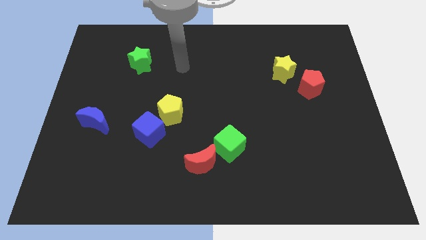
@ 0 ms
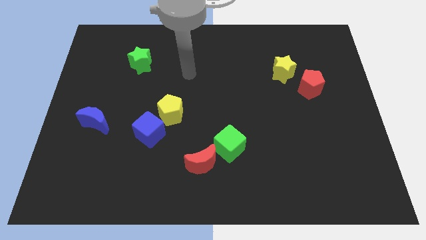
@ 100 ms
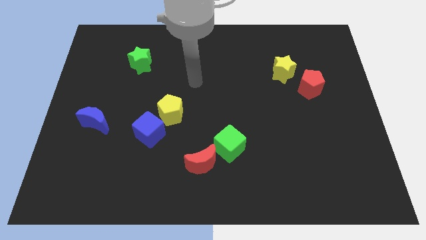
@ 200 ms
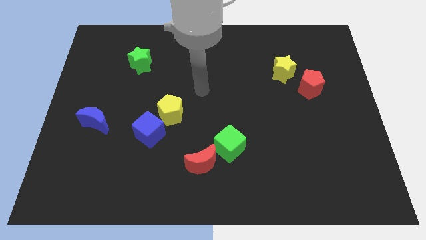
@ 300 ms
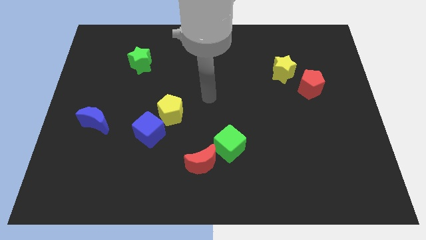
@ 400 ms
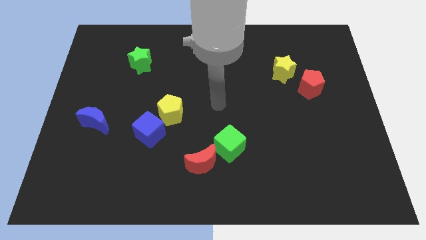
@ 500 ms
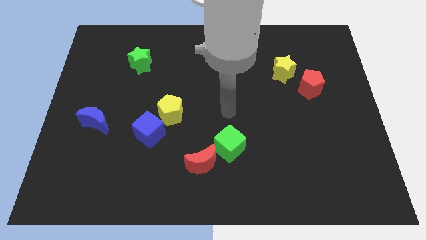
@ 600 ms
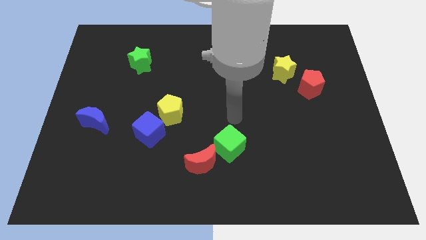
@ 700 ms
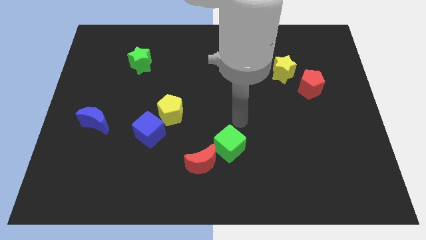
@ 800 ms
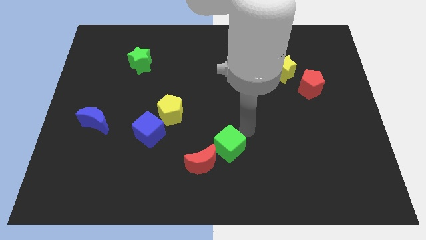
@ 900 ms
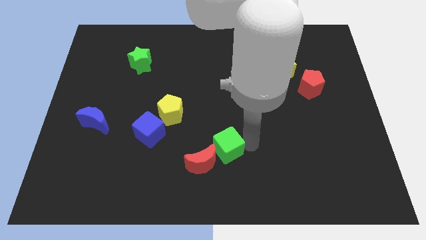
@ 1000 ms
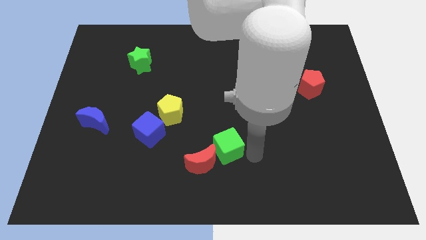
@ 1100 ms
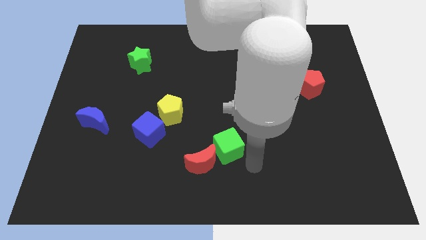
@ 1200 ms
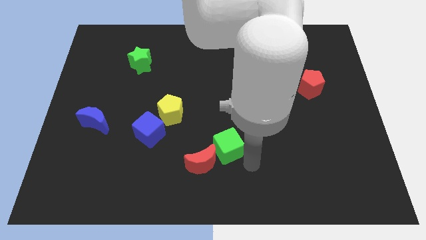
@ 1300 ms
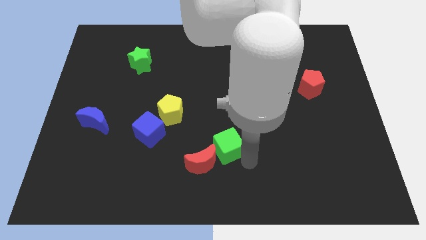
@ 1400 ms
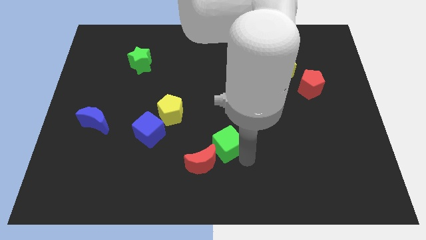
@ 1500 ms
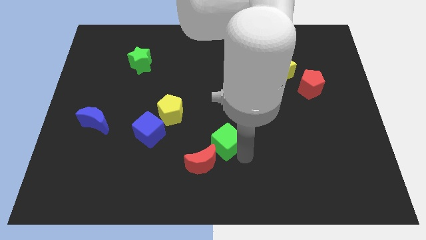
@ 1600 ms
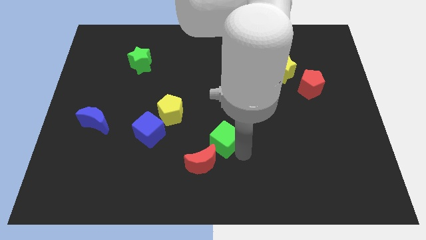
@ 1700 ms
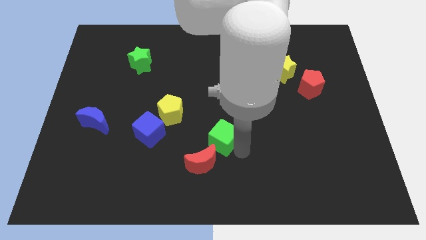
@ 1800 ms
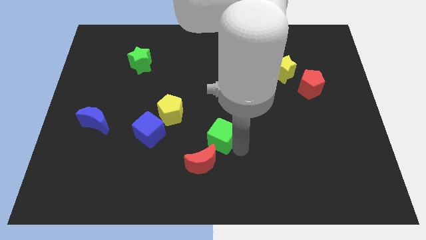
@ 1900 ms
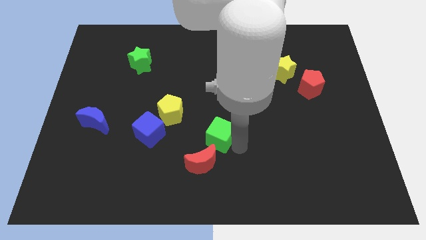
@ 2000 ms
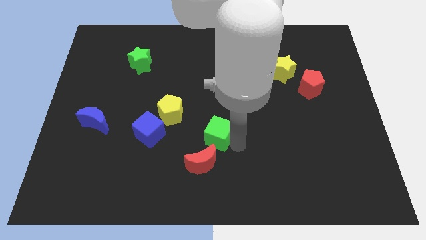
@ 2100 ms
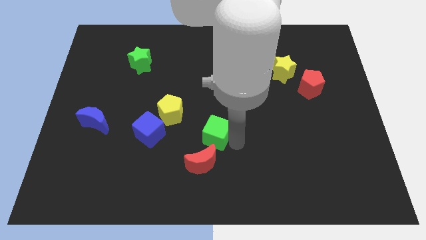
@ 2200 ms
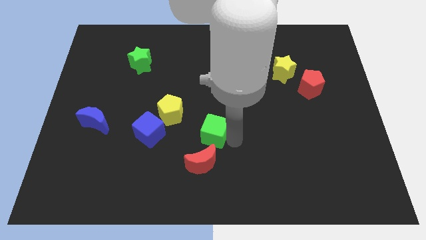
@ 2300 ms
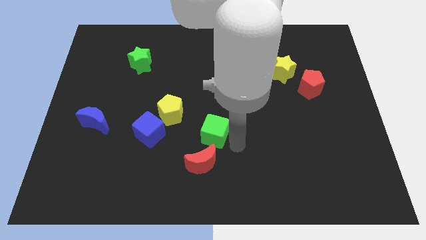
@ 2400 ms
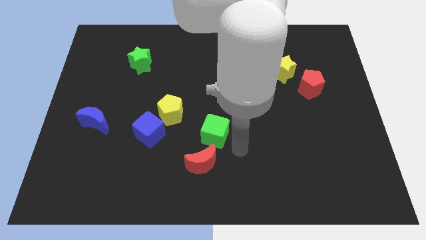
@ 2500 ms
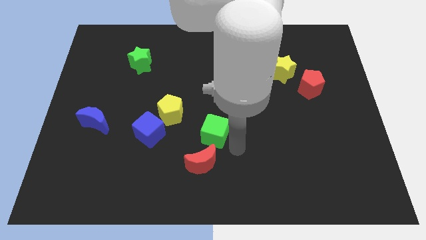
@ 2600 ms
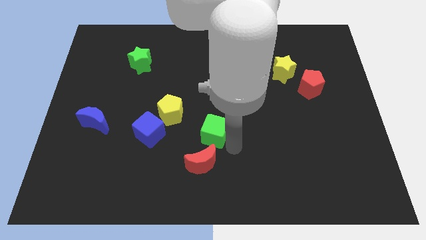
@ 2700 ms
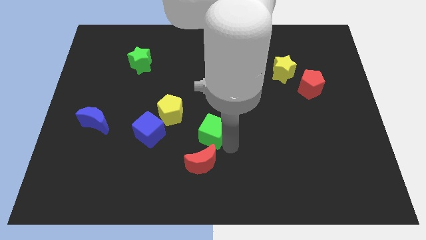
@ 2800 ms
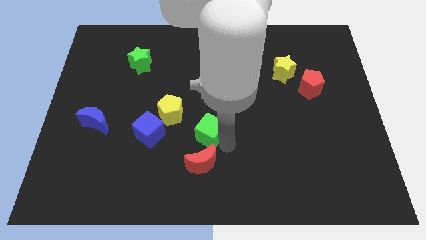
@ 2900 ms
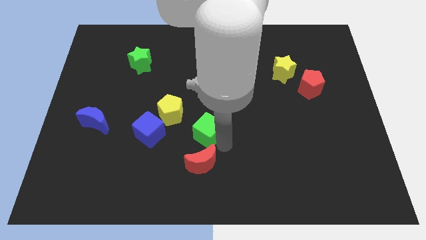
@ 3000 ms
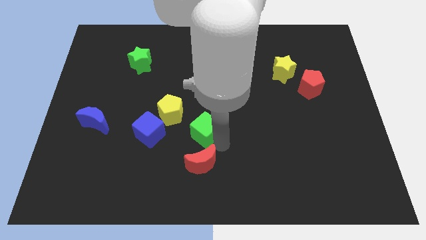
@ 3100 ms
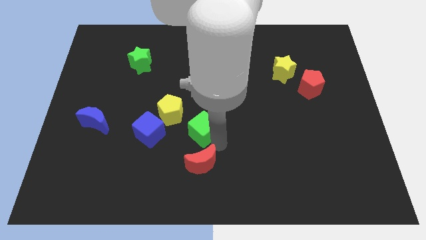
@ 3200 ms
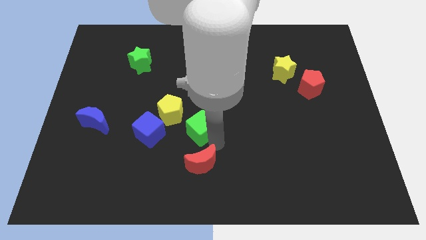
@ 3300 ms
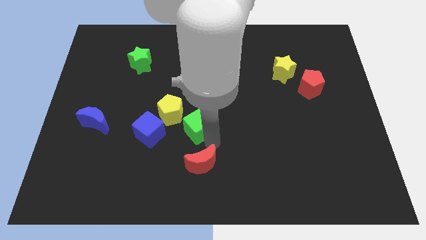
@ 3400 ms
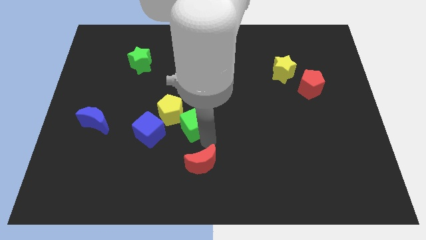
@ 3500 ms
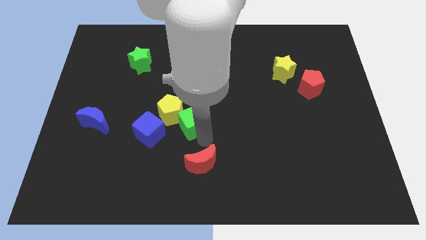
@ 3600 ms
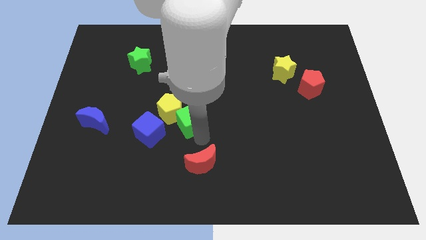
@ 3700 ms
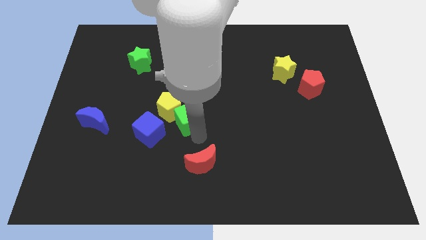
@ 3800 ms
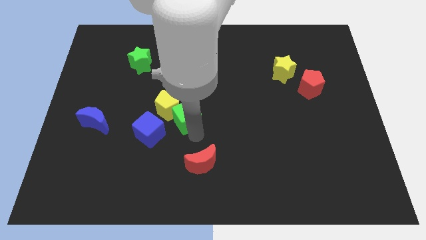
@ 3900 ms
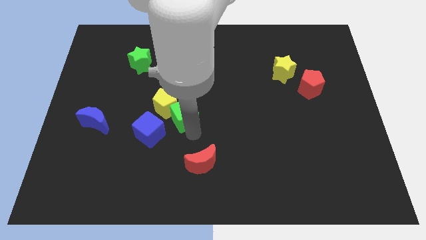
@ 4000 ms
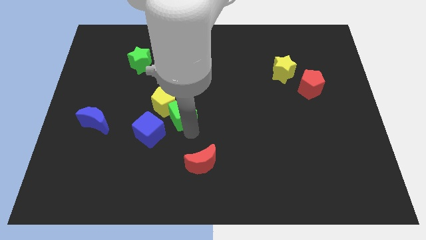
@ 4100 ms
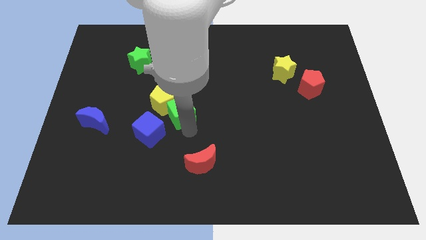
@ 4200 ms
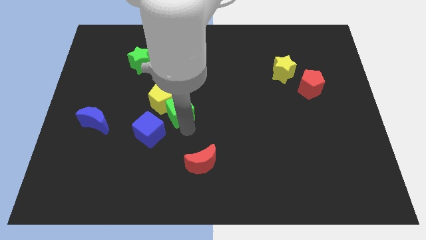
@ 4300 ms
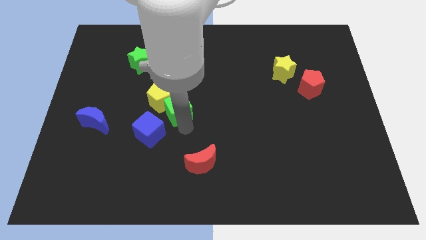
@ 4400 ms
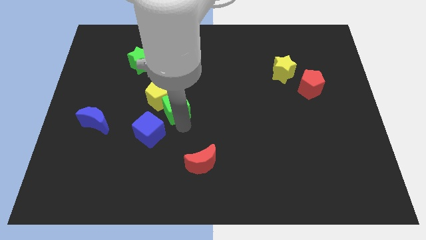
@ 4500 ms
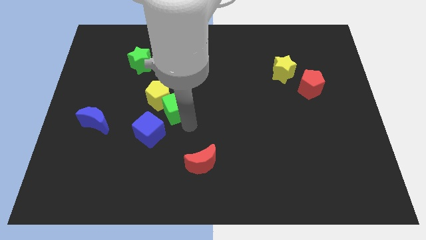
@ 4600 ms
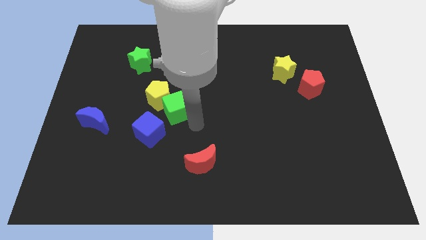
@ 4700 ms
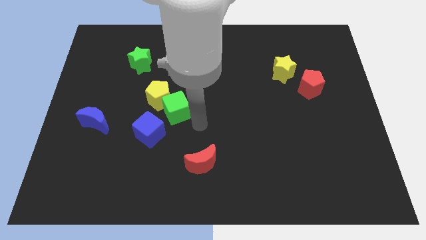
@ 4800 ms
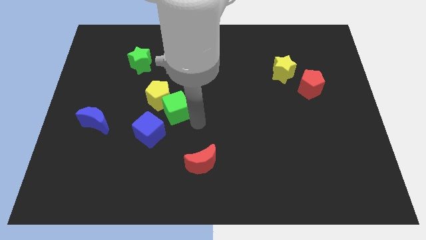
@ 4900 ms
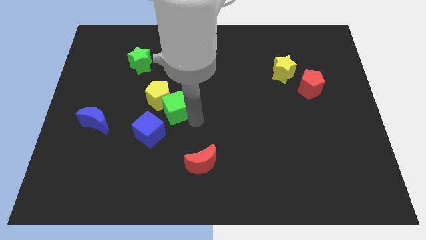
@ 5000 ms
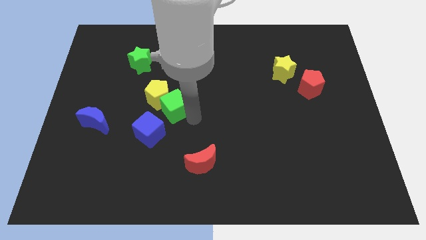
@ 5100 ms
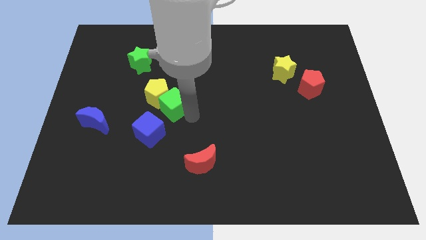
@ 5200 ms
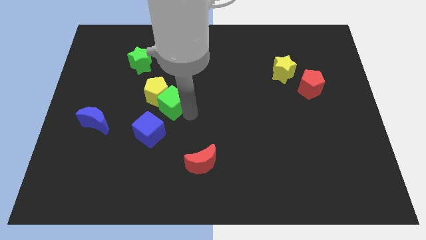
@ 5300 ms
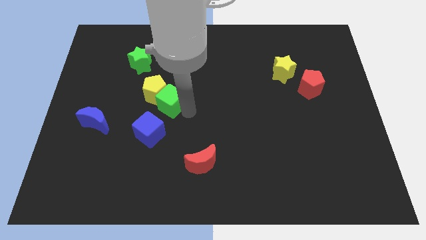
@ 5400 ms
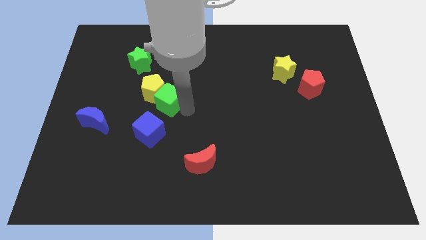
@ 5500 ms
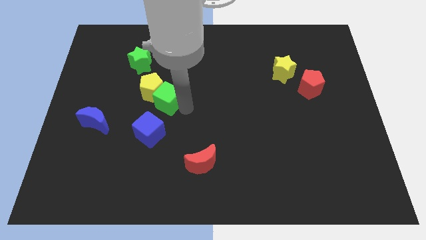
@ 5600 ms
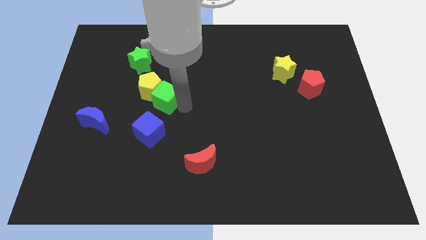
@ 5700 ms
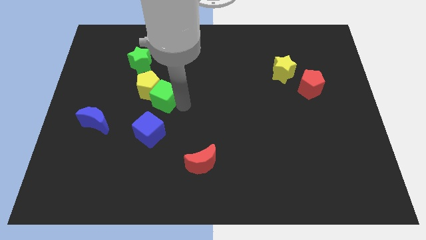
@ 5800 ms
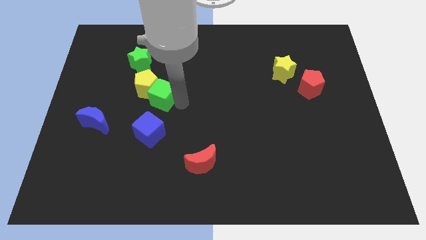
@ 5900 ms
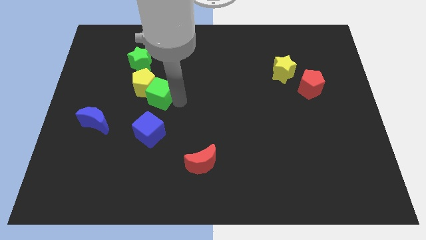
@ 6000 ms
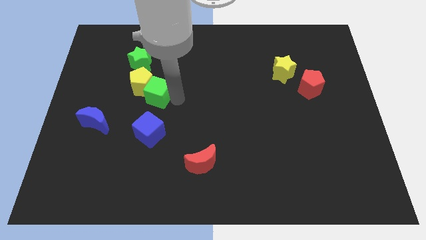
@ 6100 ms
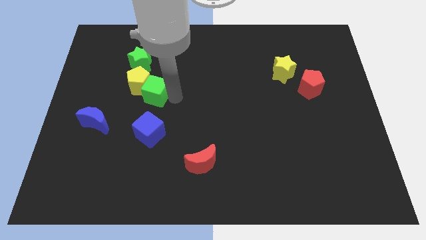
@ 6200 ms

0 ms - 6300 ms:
move the green cube to the bottom side of the green star

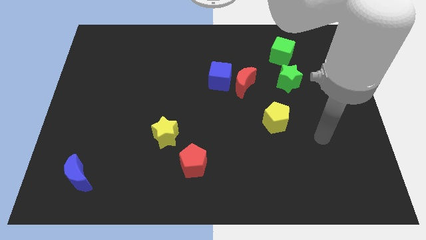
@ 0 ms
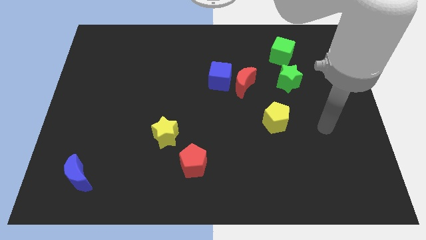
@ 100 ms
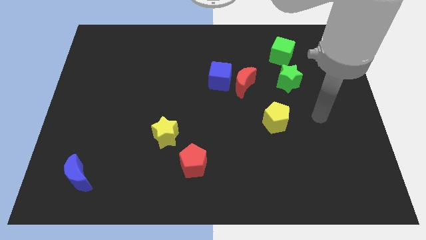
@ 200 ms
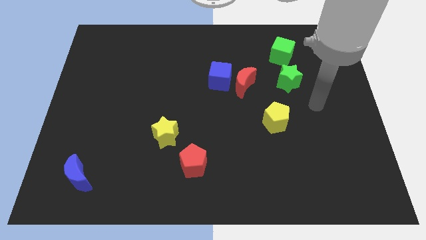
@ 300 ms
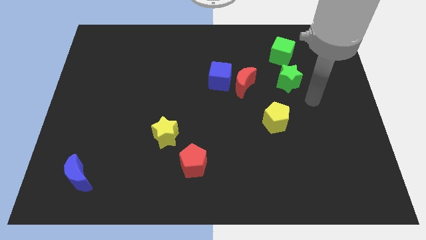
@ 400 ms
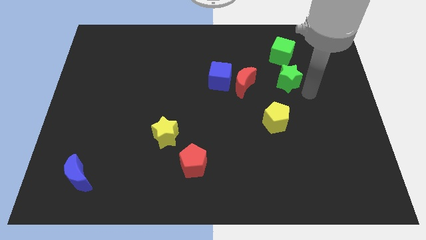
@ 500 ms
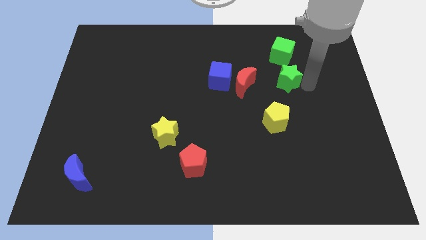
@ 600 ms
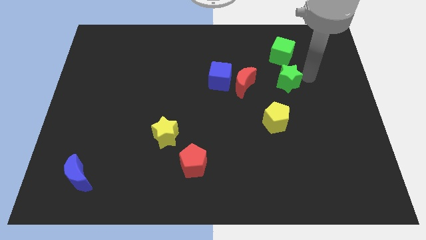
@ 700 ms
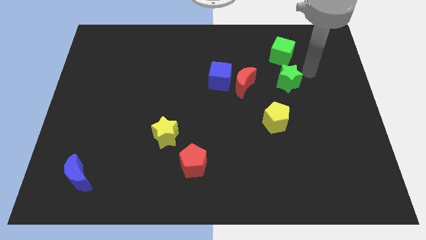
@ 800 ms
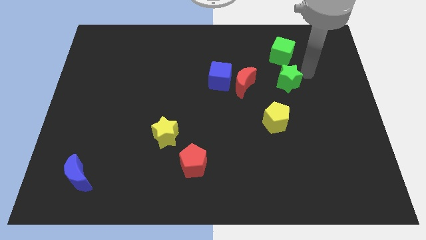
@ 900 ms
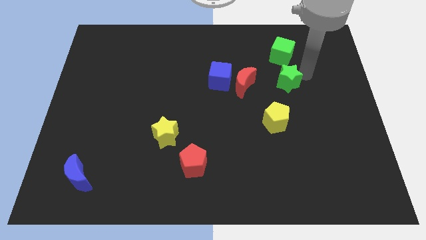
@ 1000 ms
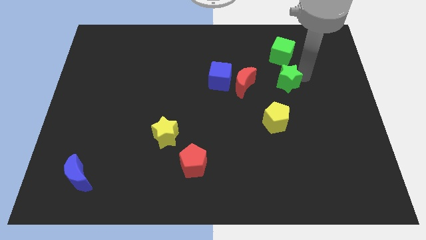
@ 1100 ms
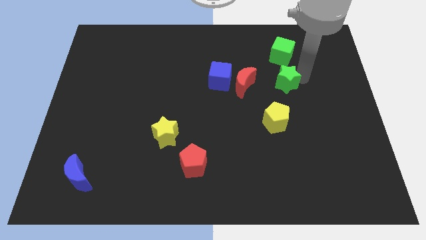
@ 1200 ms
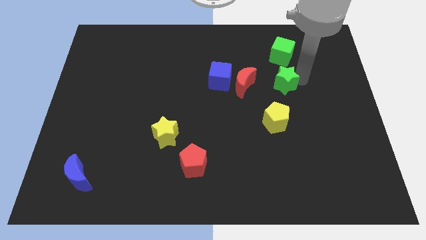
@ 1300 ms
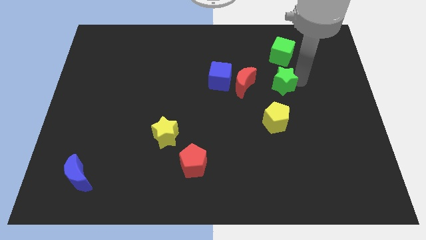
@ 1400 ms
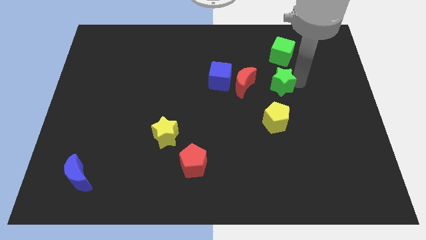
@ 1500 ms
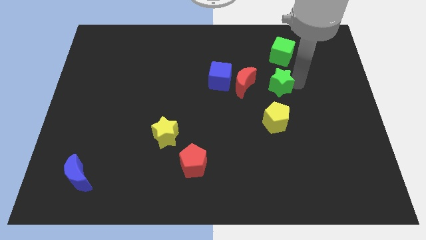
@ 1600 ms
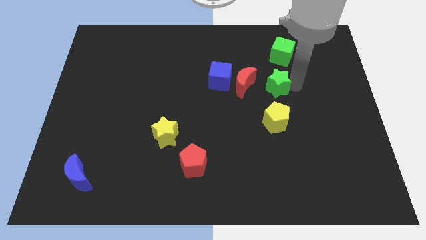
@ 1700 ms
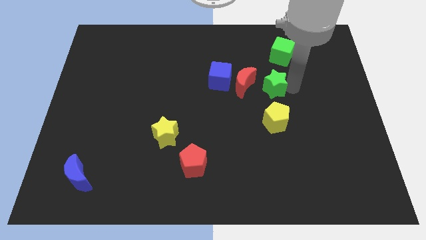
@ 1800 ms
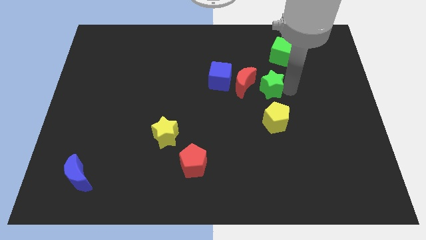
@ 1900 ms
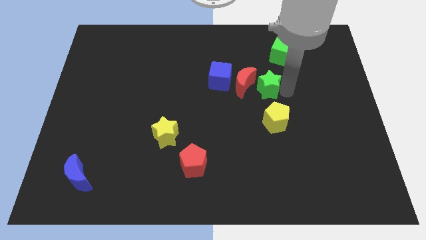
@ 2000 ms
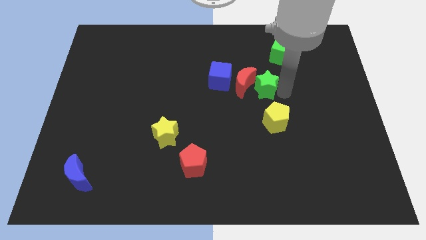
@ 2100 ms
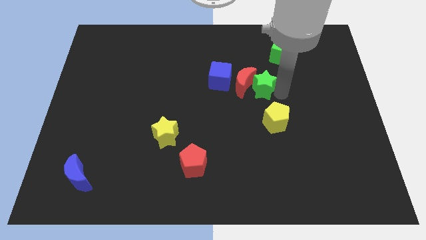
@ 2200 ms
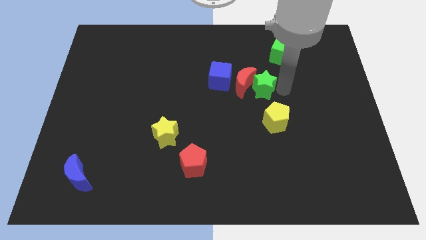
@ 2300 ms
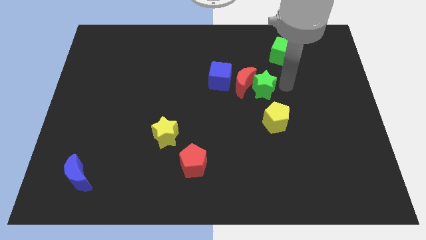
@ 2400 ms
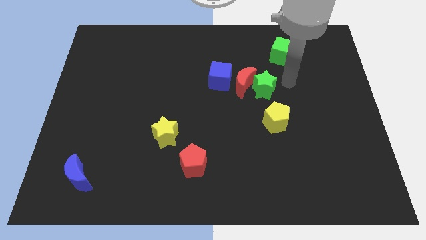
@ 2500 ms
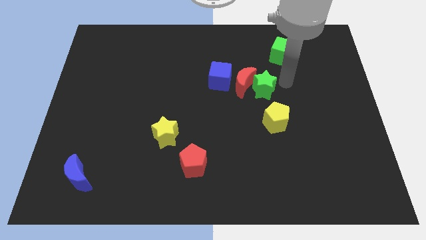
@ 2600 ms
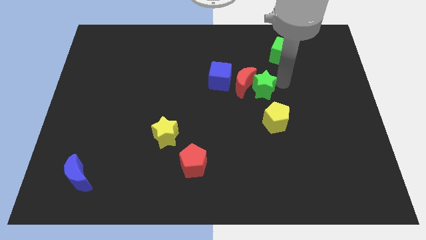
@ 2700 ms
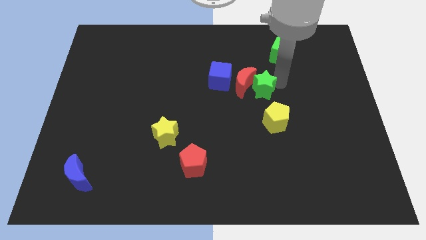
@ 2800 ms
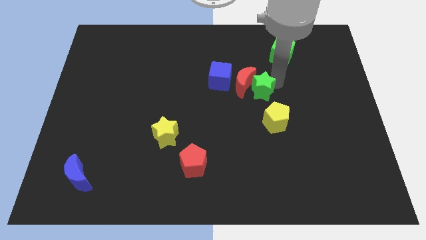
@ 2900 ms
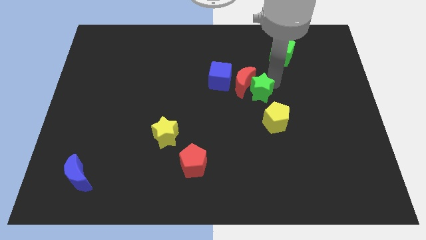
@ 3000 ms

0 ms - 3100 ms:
push the green star diagonally down and to the right of the blue cube
